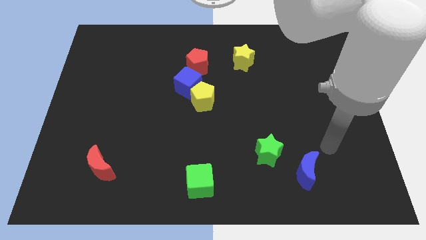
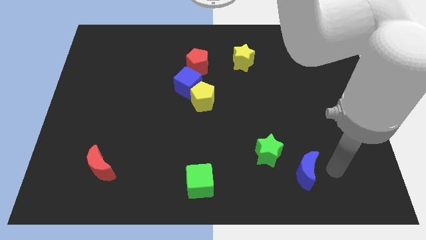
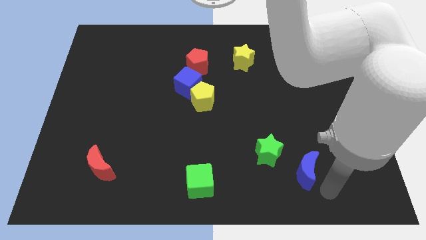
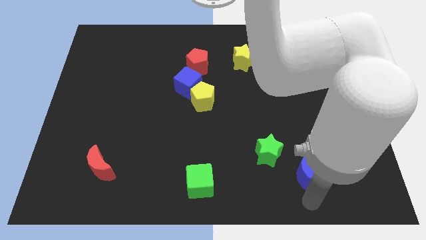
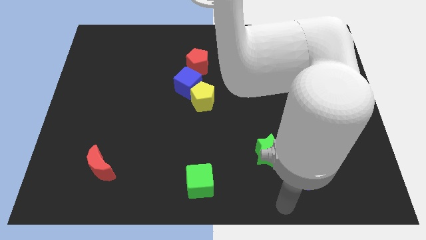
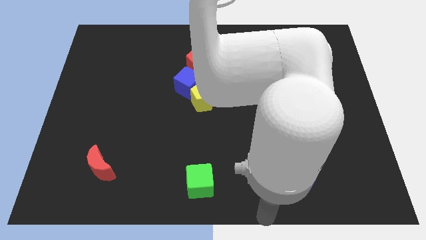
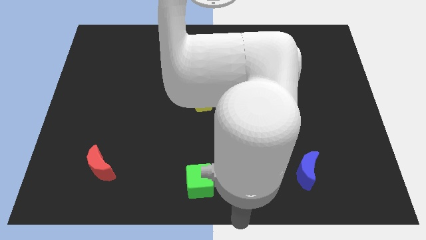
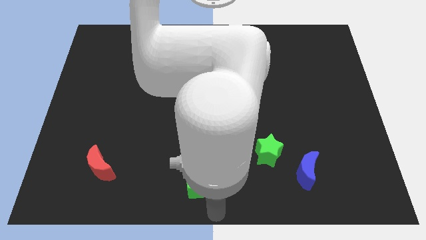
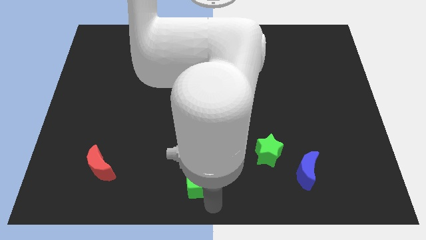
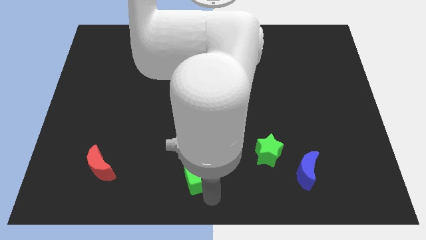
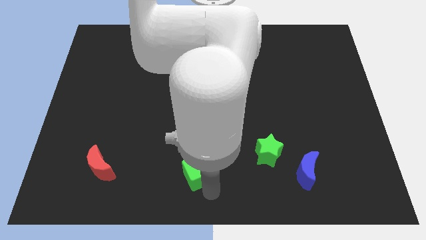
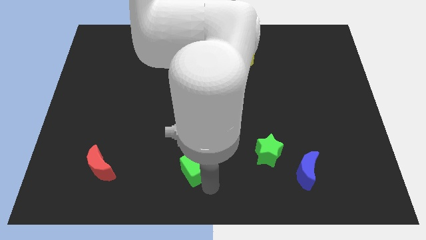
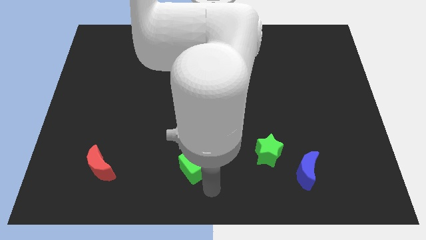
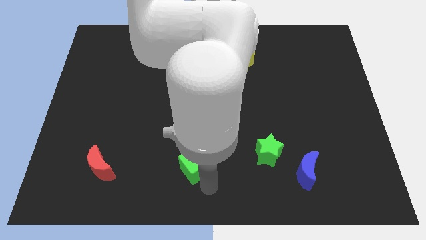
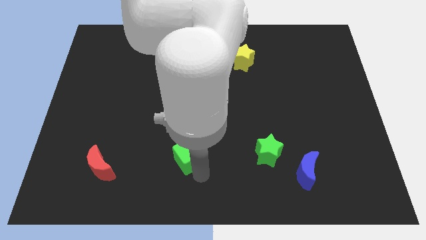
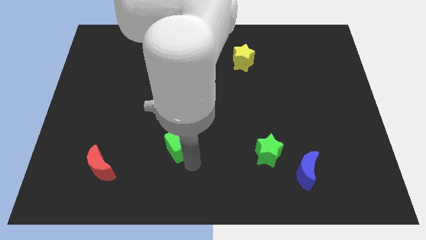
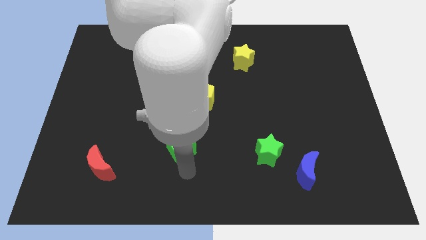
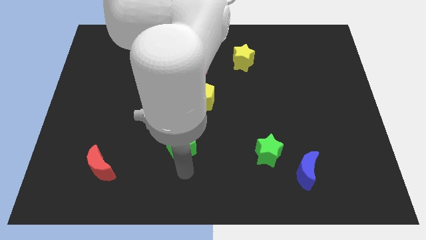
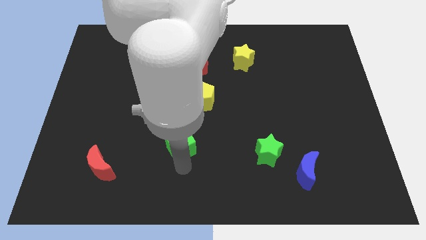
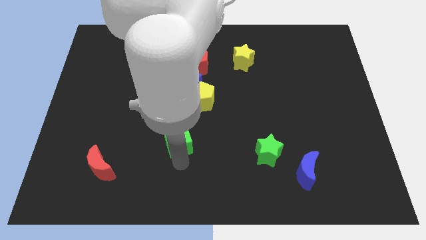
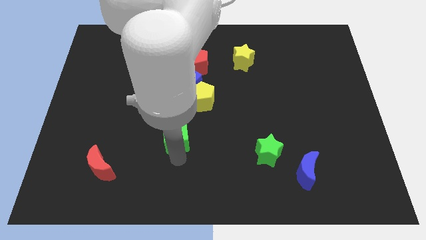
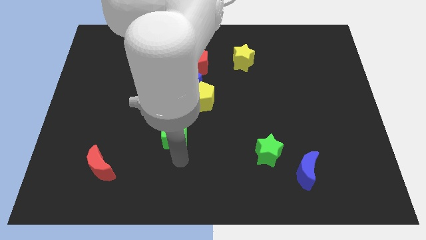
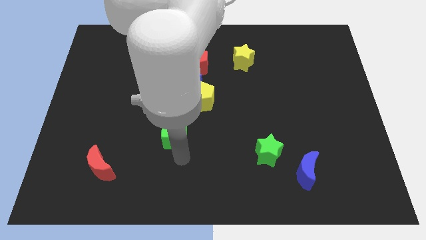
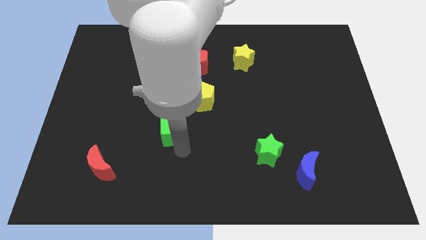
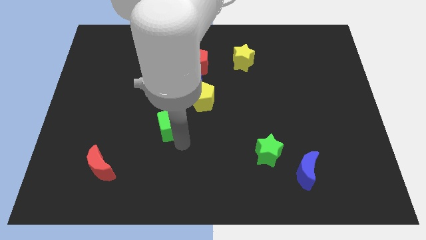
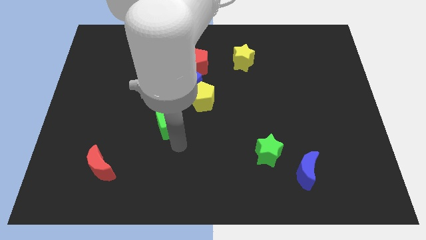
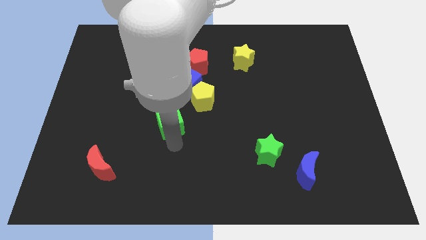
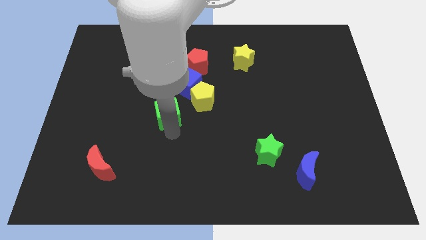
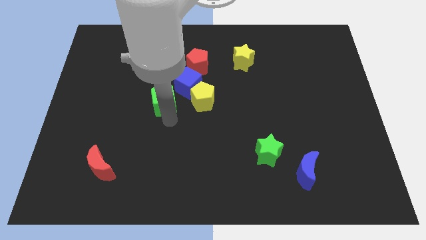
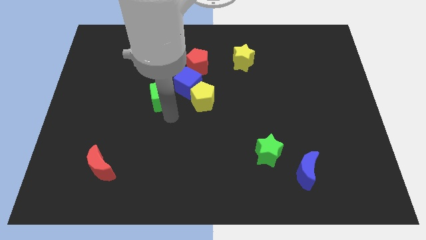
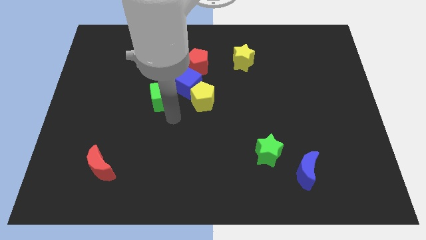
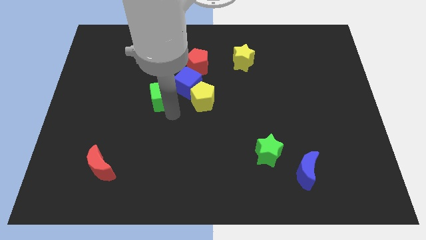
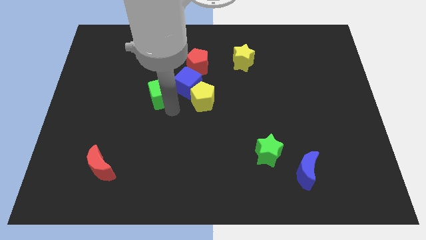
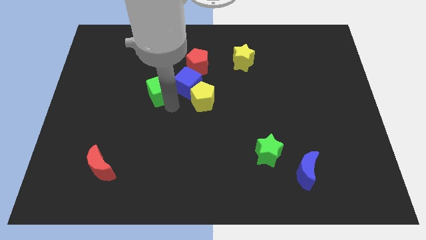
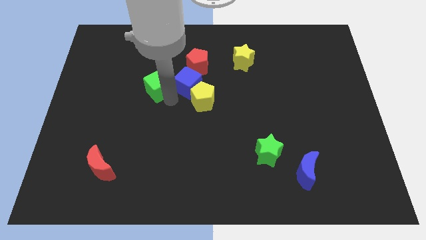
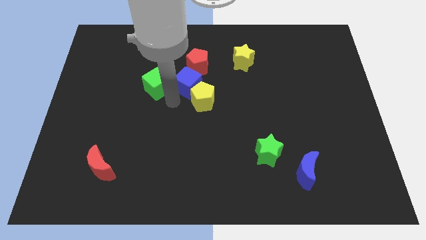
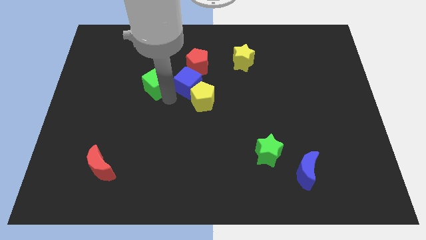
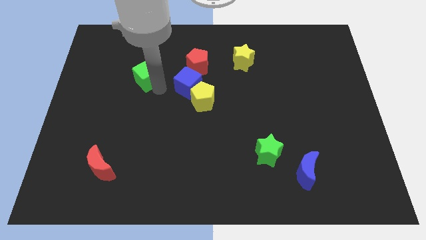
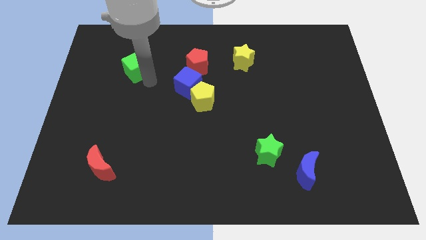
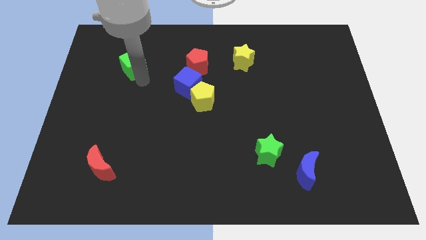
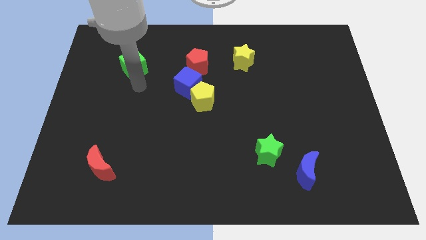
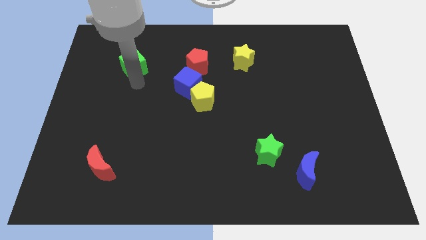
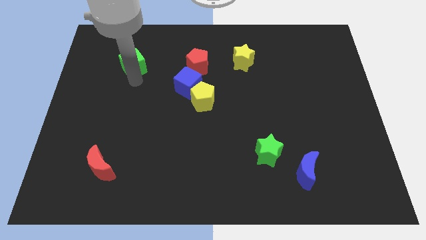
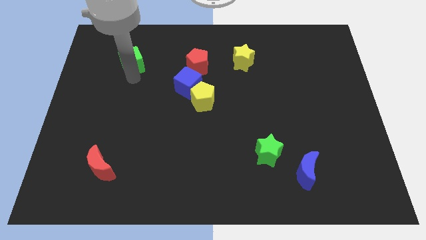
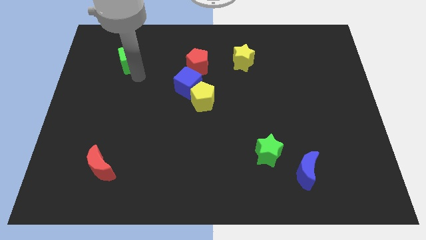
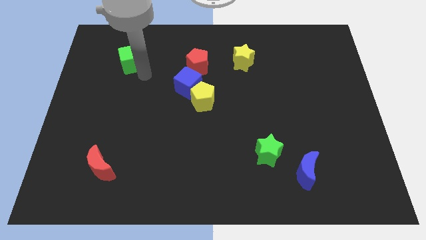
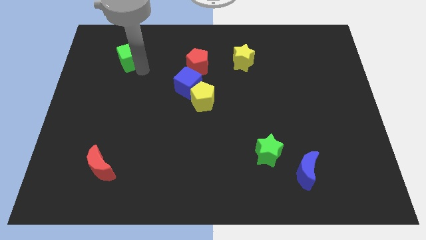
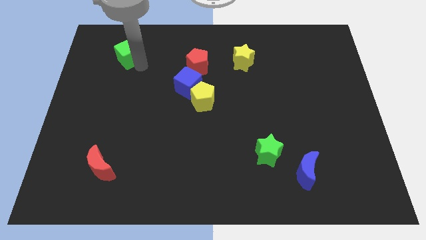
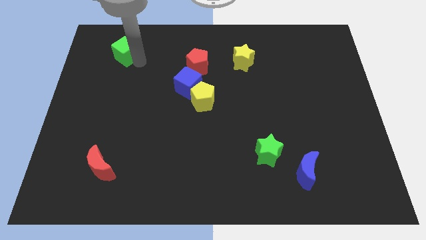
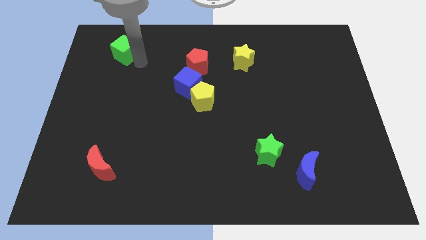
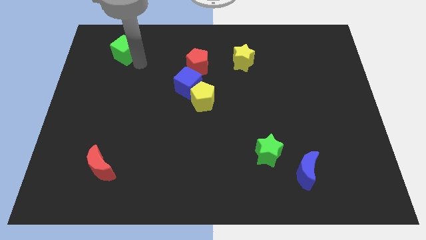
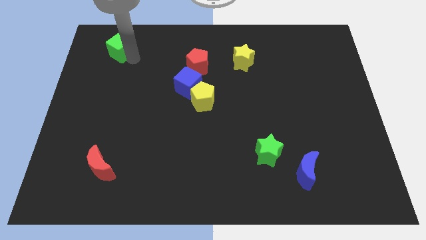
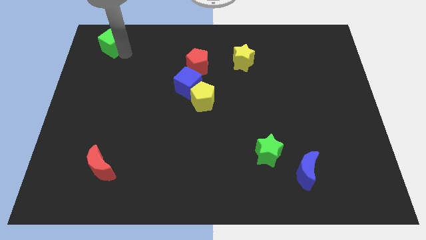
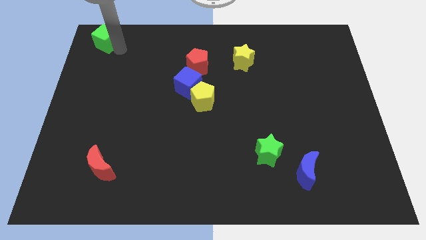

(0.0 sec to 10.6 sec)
put the green cube to the top left of the board
